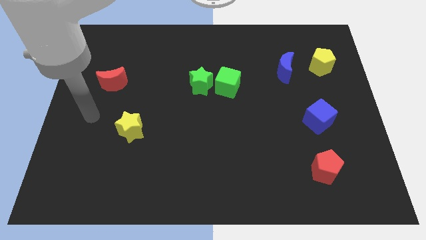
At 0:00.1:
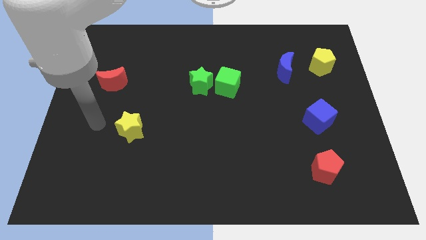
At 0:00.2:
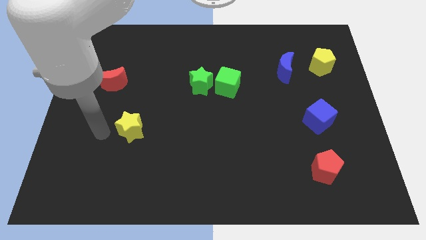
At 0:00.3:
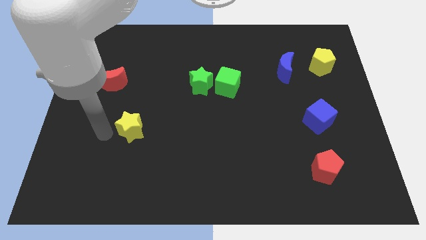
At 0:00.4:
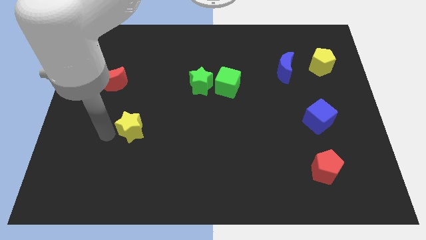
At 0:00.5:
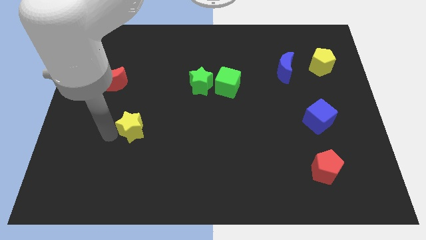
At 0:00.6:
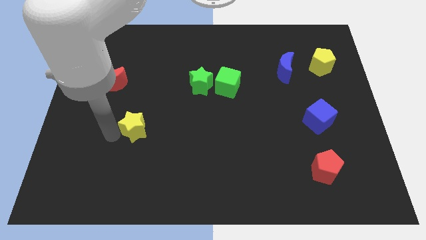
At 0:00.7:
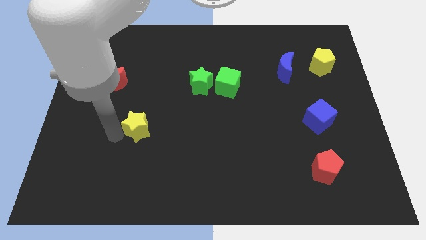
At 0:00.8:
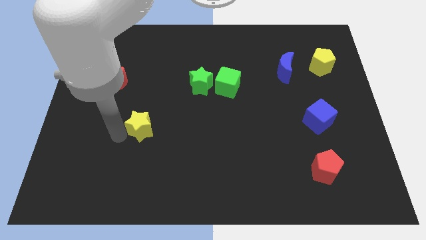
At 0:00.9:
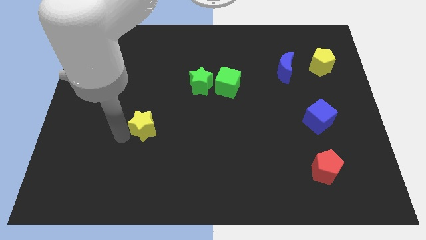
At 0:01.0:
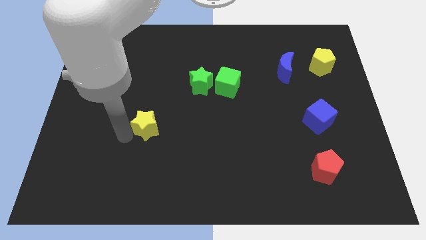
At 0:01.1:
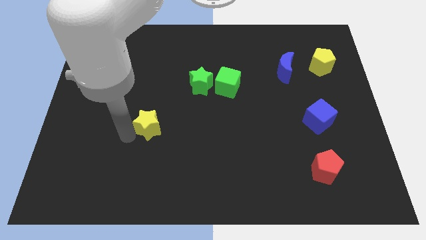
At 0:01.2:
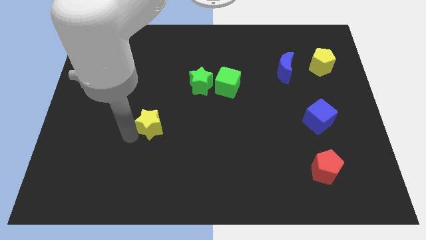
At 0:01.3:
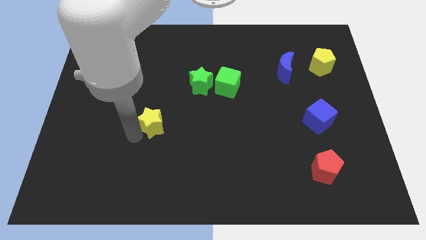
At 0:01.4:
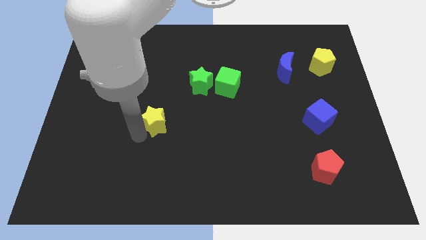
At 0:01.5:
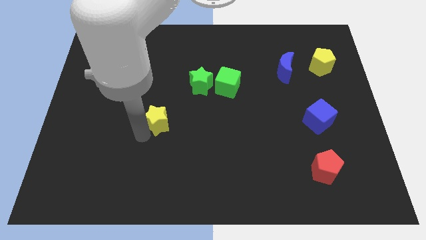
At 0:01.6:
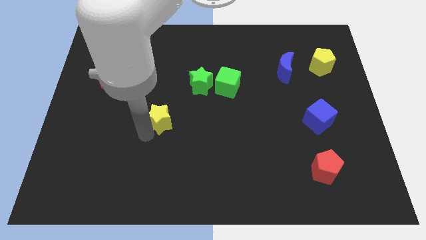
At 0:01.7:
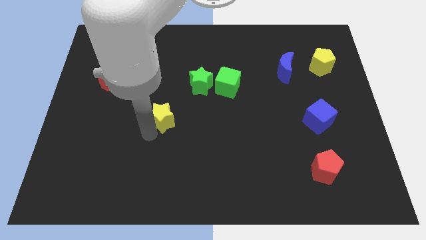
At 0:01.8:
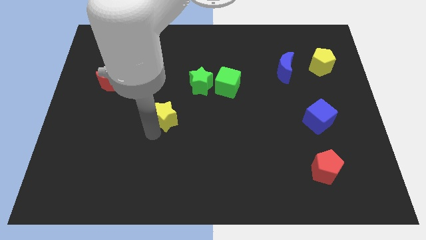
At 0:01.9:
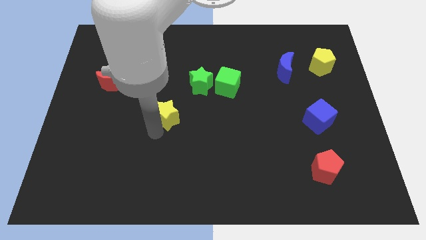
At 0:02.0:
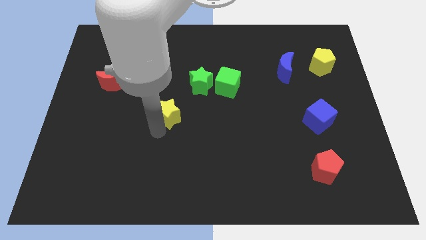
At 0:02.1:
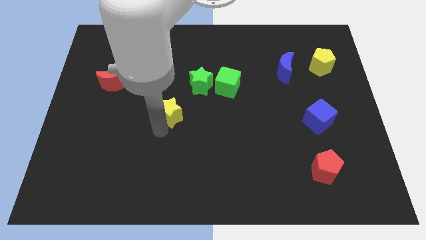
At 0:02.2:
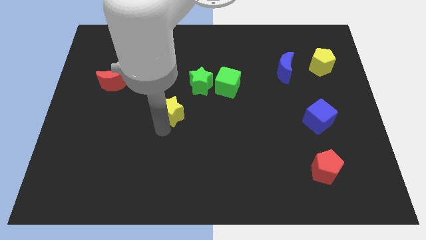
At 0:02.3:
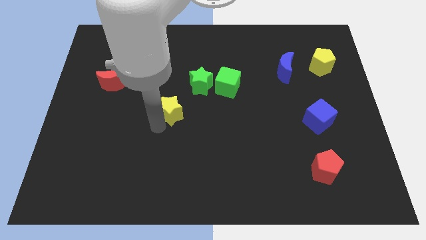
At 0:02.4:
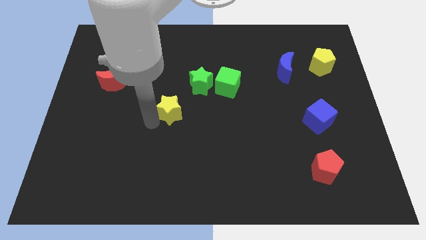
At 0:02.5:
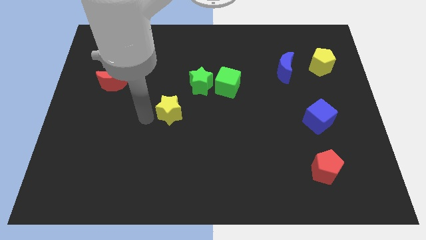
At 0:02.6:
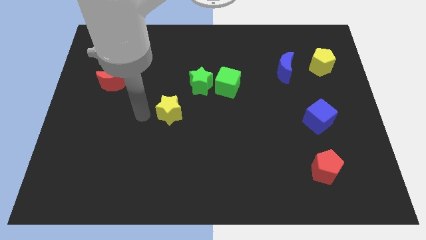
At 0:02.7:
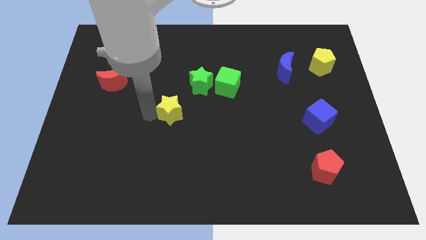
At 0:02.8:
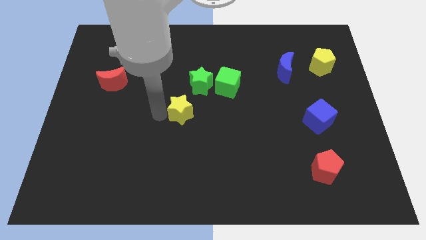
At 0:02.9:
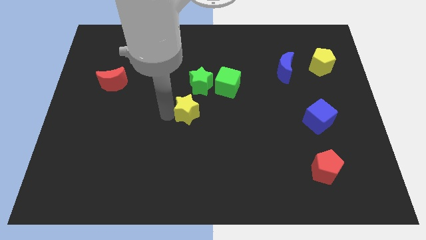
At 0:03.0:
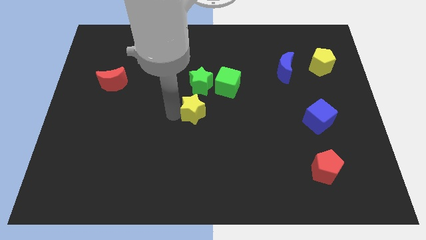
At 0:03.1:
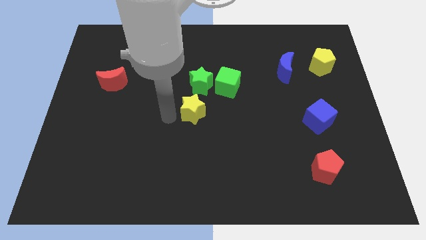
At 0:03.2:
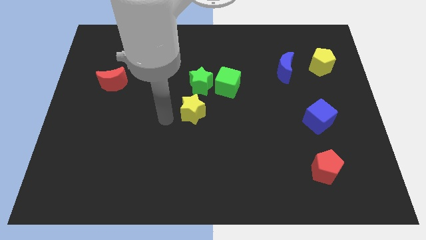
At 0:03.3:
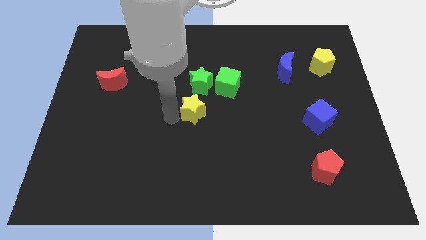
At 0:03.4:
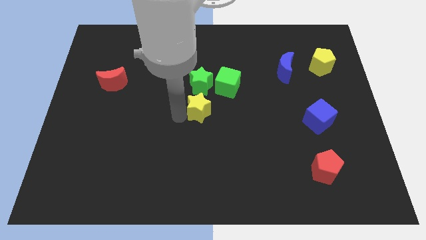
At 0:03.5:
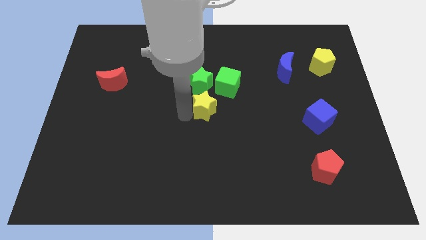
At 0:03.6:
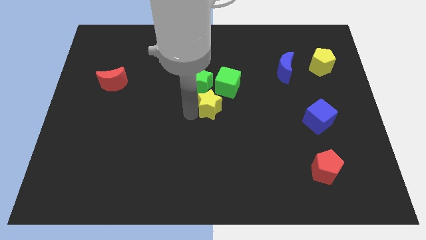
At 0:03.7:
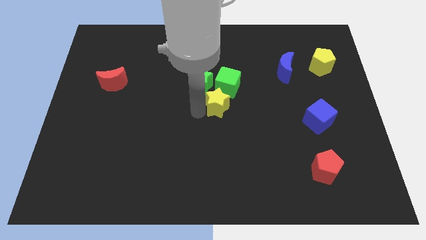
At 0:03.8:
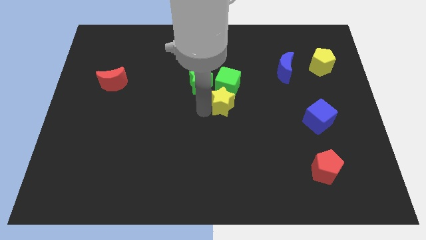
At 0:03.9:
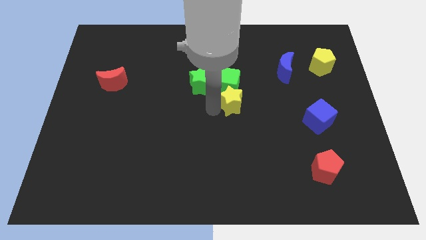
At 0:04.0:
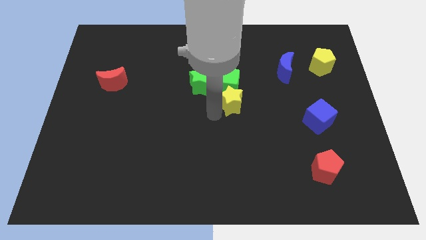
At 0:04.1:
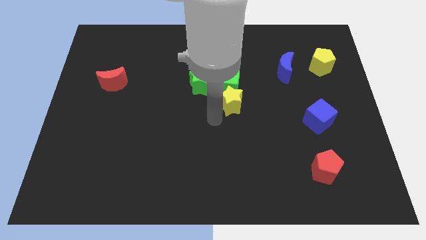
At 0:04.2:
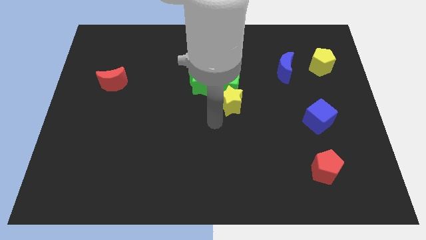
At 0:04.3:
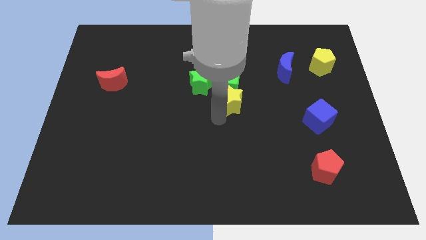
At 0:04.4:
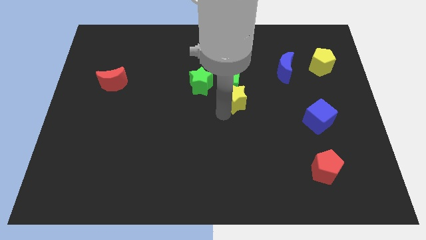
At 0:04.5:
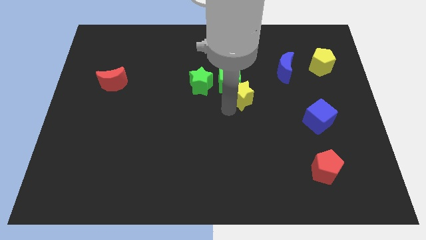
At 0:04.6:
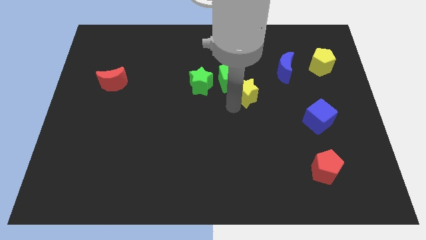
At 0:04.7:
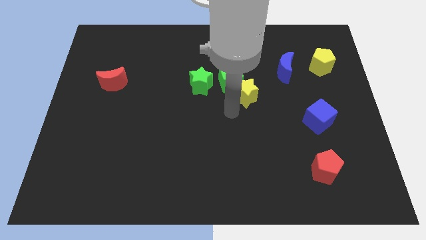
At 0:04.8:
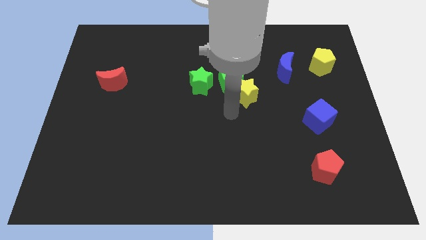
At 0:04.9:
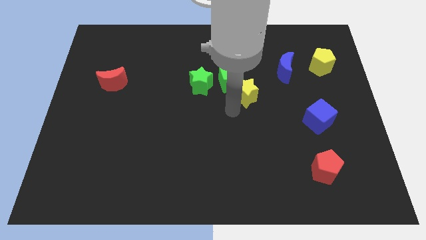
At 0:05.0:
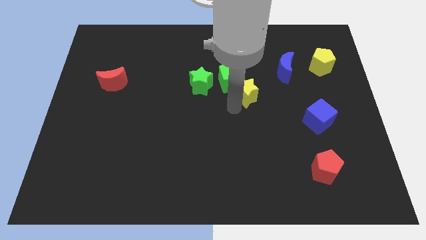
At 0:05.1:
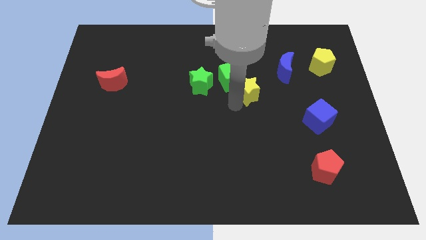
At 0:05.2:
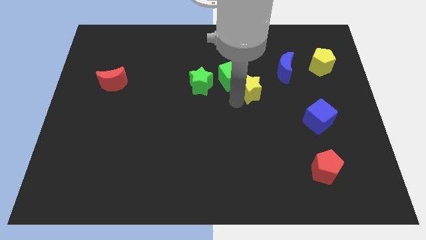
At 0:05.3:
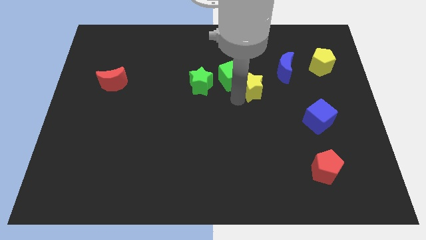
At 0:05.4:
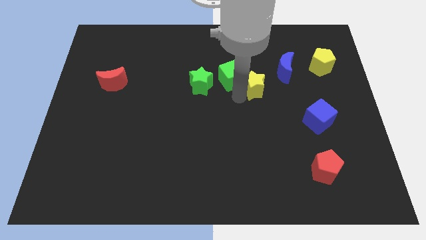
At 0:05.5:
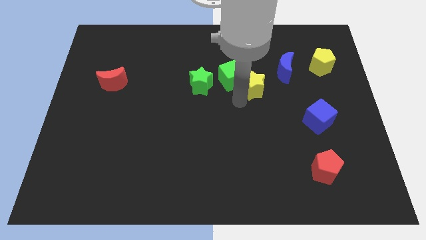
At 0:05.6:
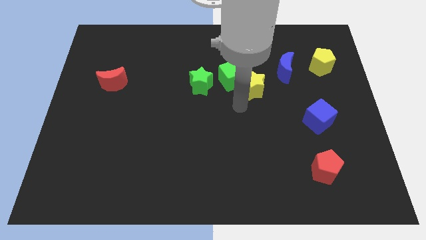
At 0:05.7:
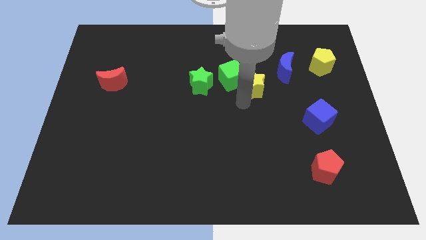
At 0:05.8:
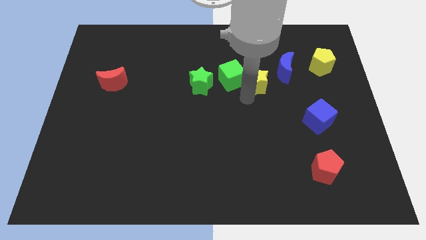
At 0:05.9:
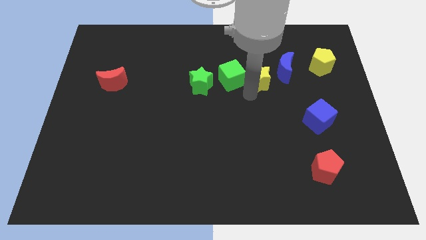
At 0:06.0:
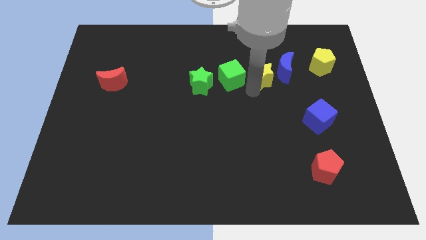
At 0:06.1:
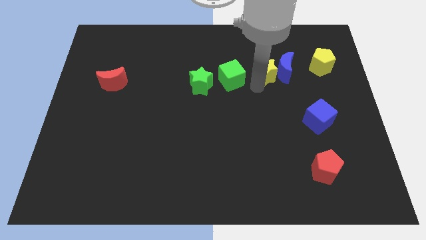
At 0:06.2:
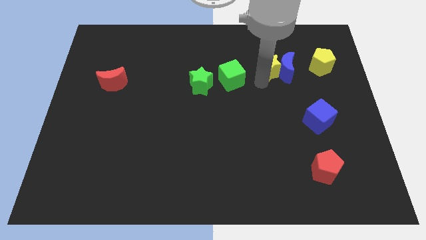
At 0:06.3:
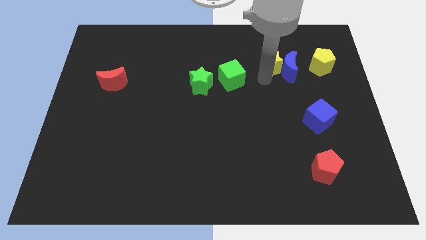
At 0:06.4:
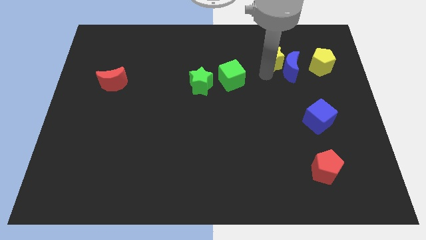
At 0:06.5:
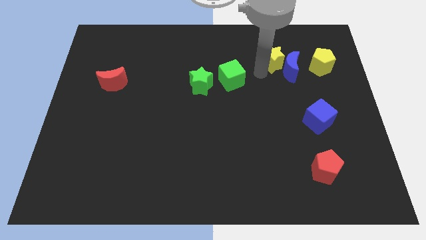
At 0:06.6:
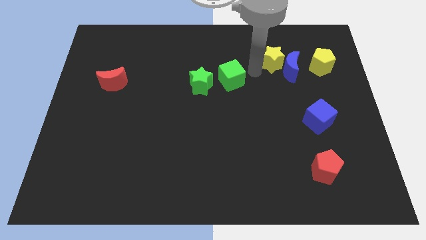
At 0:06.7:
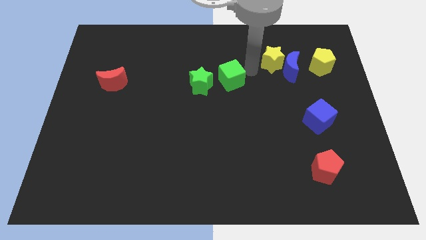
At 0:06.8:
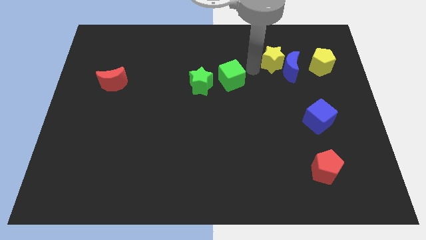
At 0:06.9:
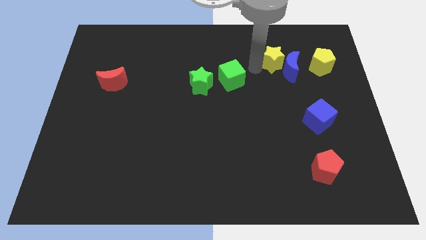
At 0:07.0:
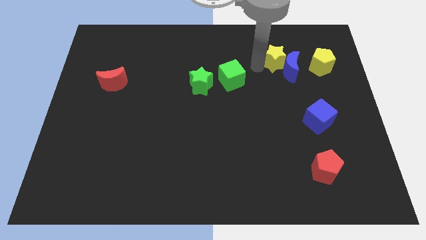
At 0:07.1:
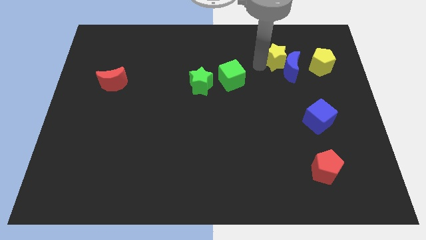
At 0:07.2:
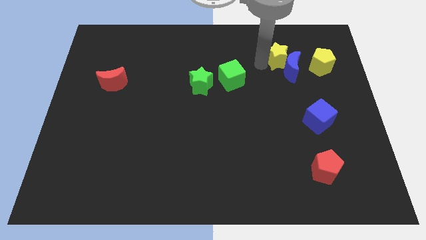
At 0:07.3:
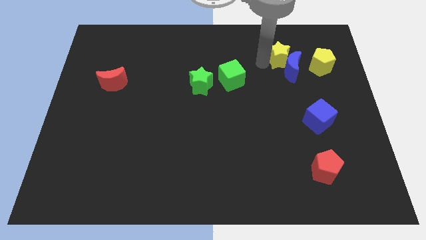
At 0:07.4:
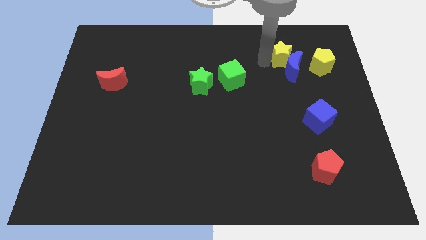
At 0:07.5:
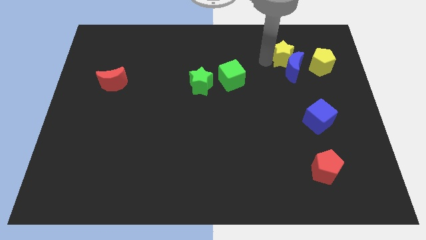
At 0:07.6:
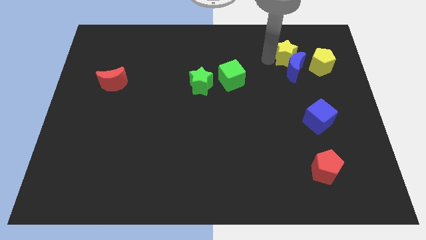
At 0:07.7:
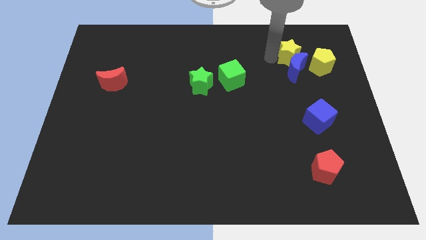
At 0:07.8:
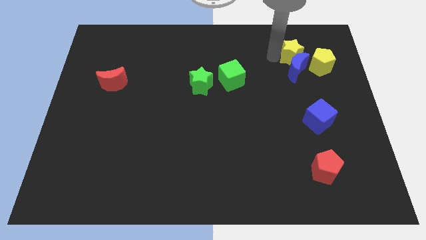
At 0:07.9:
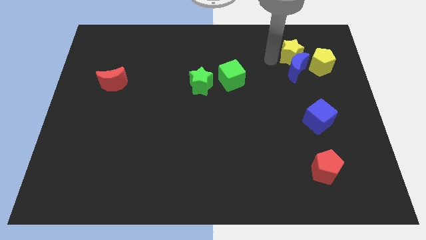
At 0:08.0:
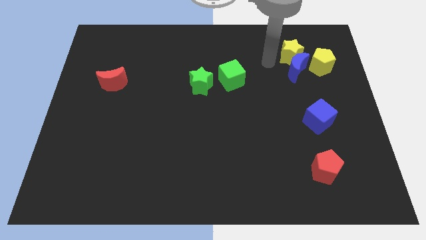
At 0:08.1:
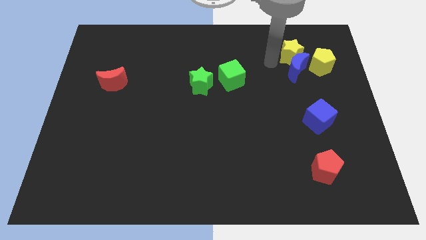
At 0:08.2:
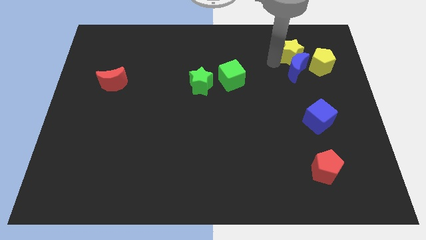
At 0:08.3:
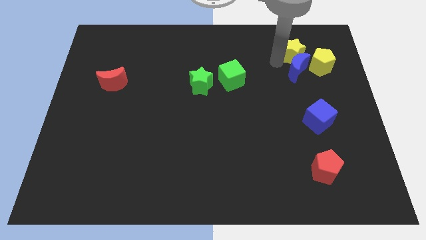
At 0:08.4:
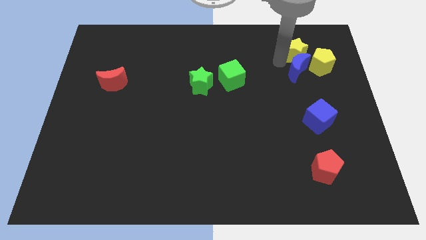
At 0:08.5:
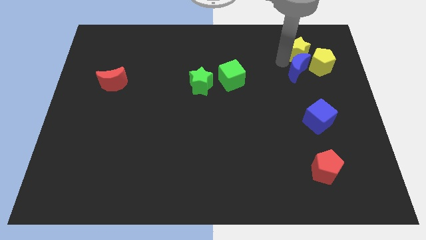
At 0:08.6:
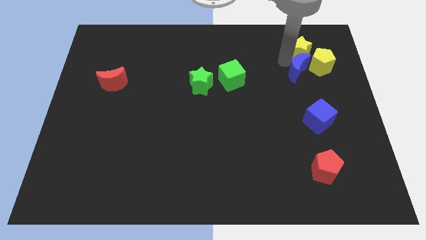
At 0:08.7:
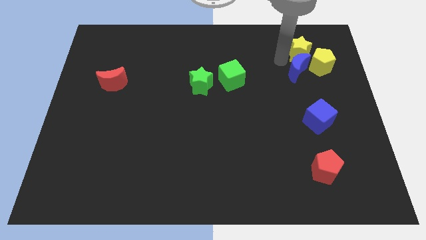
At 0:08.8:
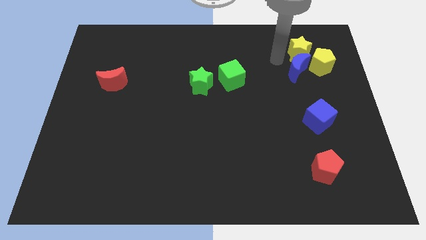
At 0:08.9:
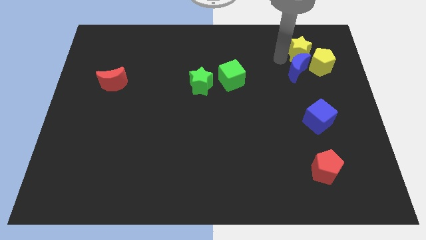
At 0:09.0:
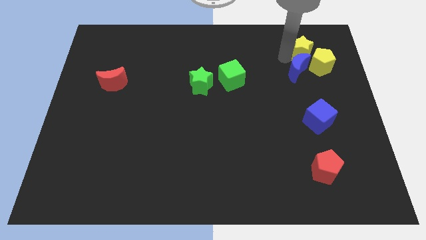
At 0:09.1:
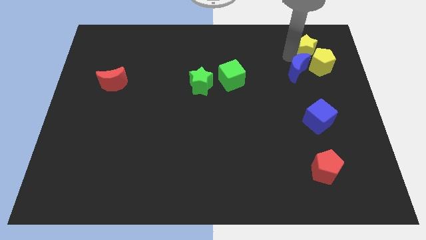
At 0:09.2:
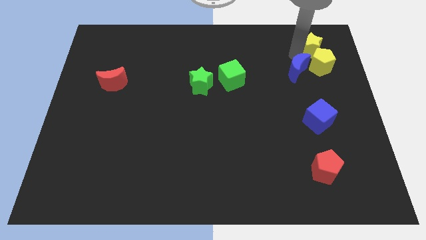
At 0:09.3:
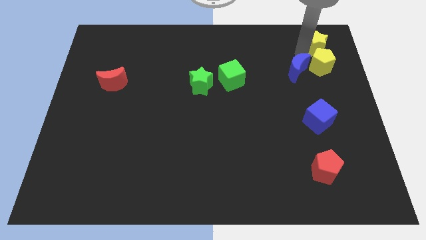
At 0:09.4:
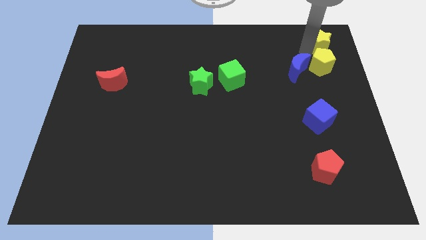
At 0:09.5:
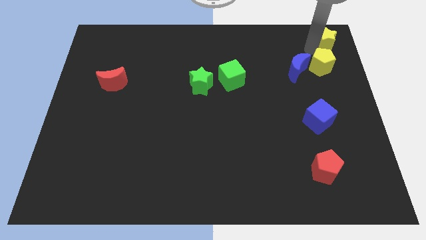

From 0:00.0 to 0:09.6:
push the yellow star to the top right of the board
